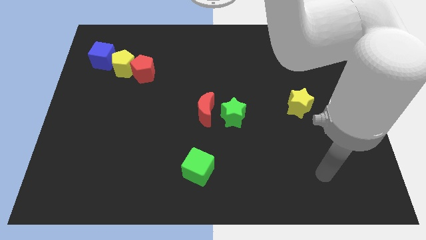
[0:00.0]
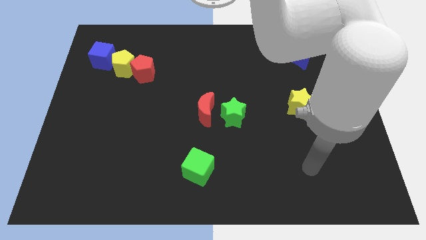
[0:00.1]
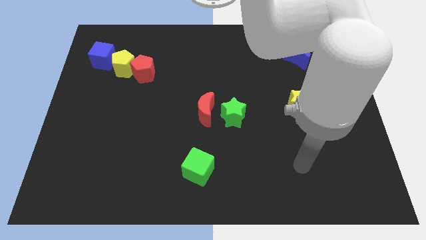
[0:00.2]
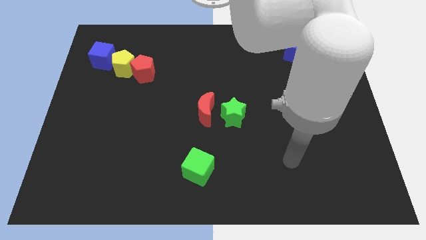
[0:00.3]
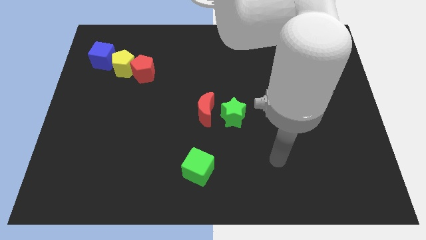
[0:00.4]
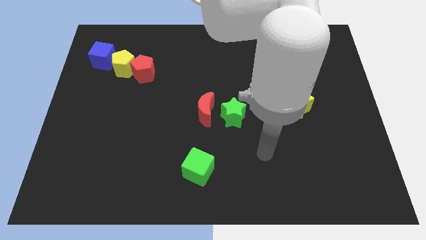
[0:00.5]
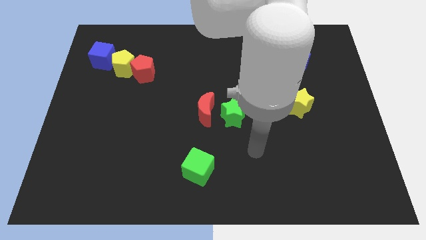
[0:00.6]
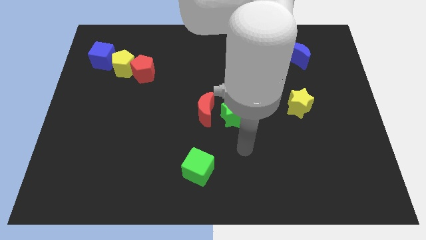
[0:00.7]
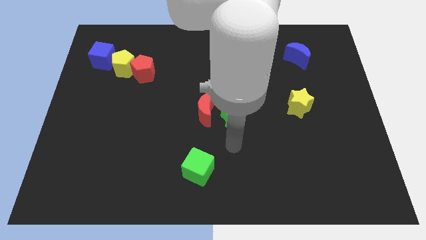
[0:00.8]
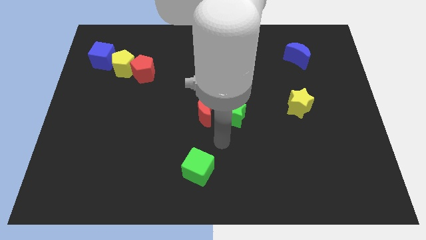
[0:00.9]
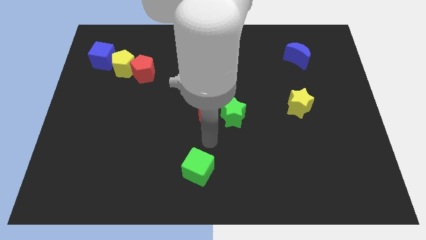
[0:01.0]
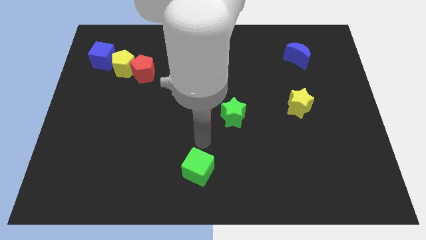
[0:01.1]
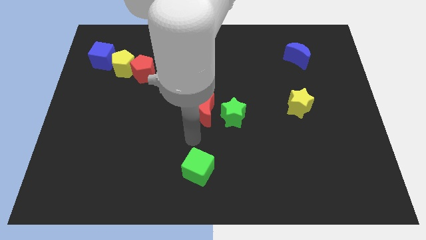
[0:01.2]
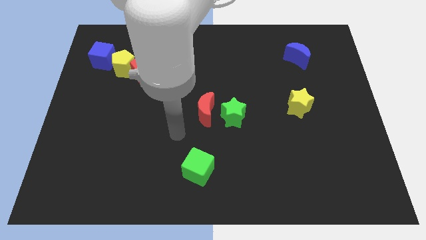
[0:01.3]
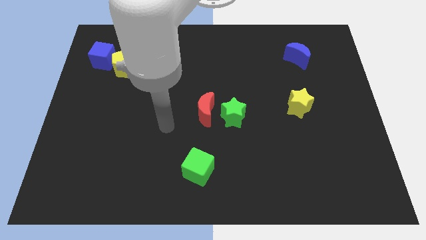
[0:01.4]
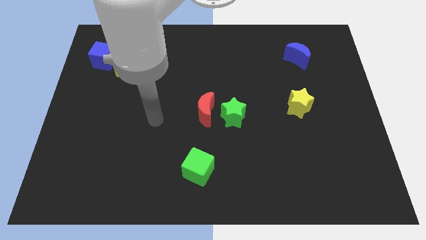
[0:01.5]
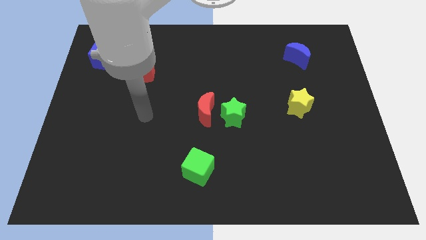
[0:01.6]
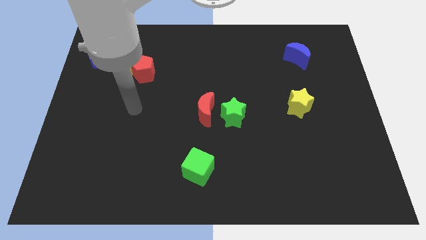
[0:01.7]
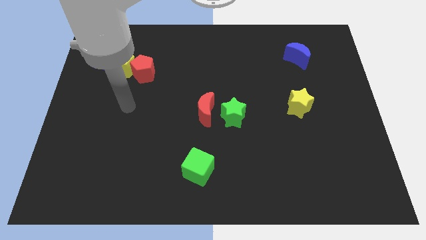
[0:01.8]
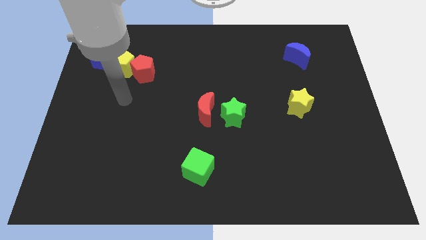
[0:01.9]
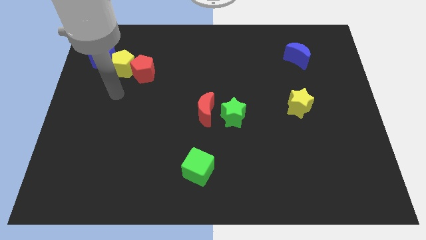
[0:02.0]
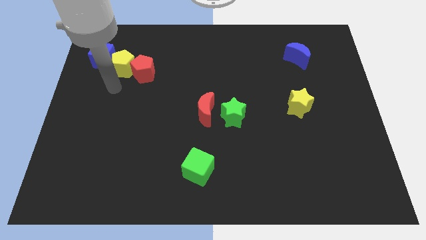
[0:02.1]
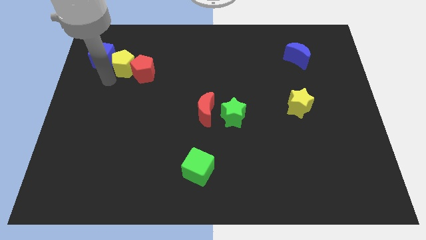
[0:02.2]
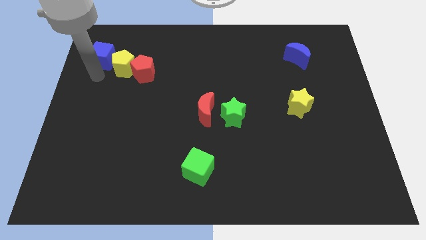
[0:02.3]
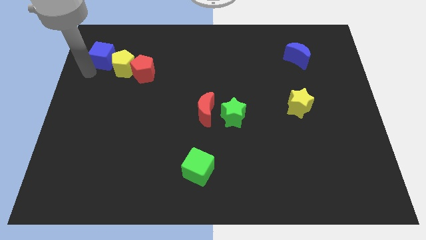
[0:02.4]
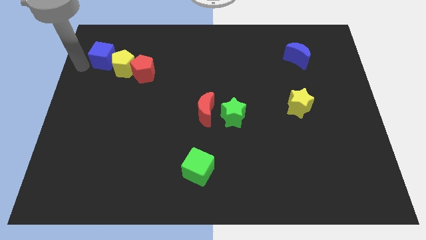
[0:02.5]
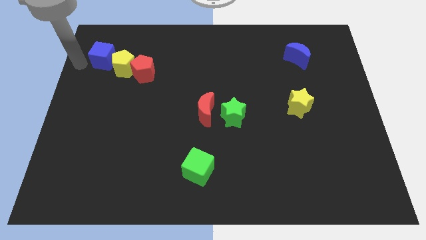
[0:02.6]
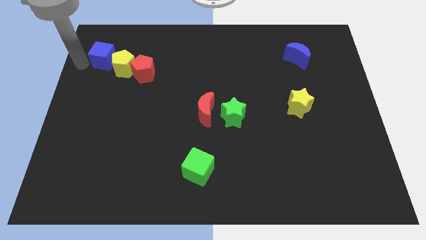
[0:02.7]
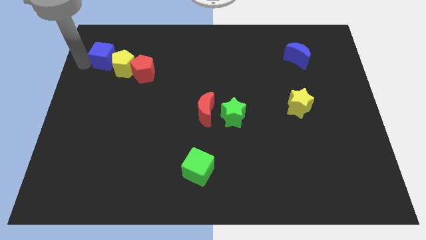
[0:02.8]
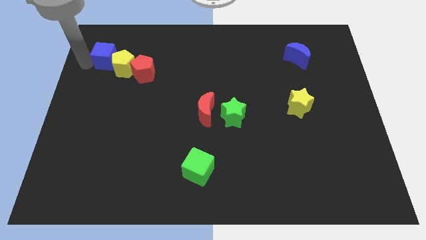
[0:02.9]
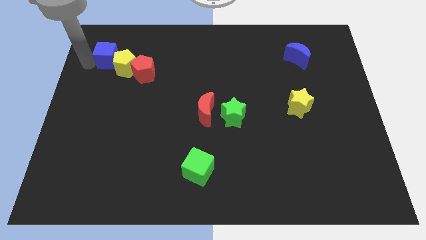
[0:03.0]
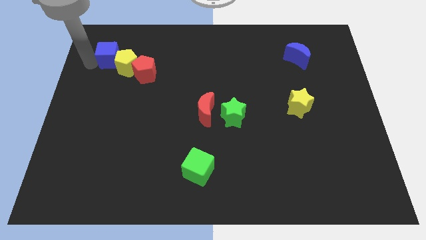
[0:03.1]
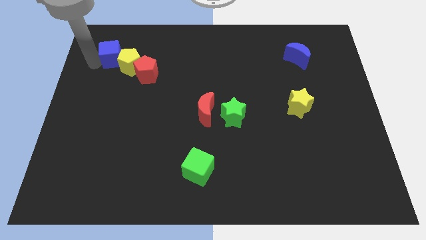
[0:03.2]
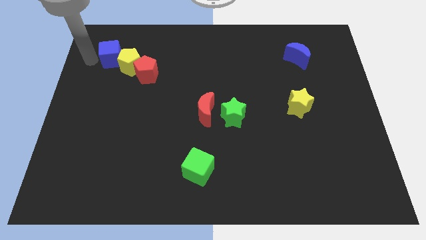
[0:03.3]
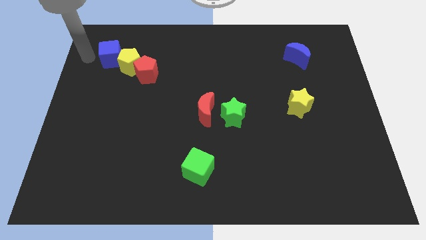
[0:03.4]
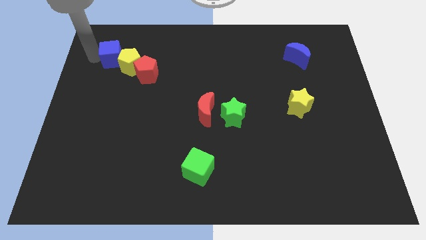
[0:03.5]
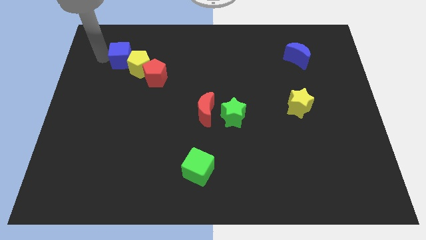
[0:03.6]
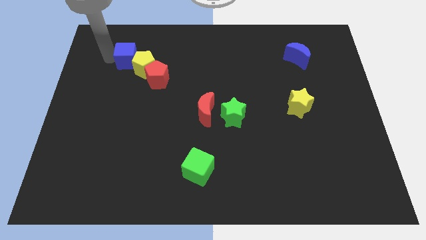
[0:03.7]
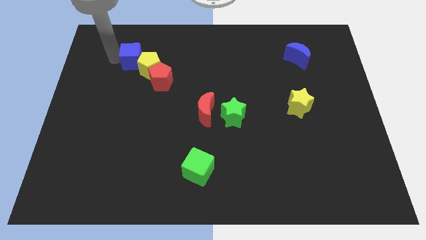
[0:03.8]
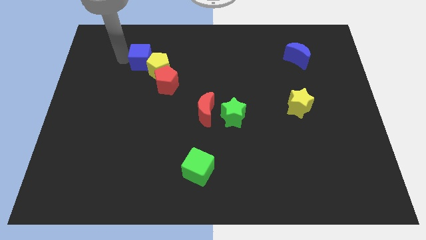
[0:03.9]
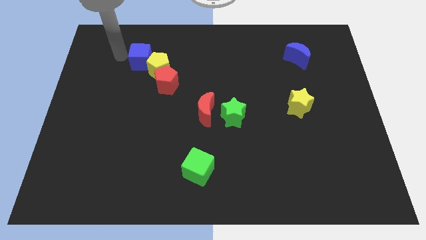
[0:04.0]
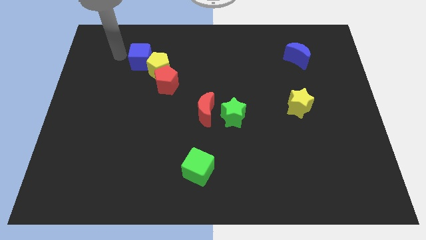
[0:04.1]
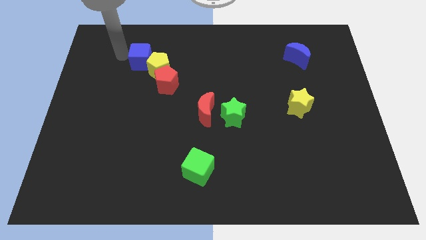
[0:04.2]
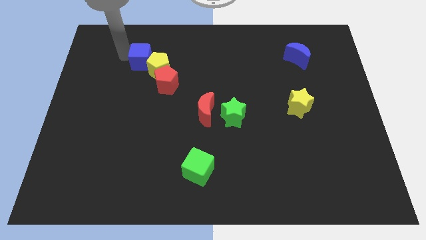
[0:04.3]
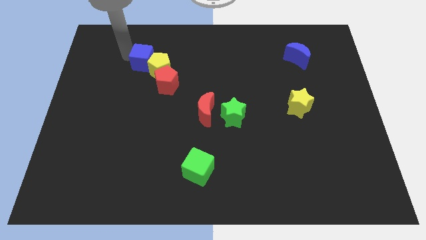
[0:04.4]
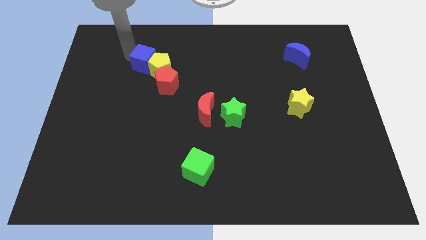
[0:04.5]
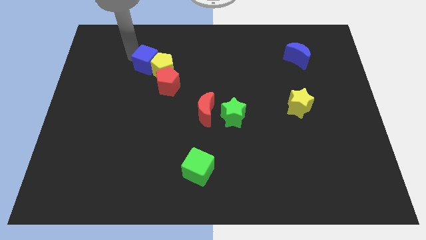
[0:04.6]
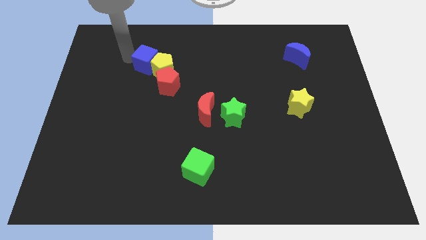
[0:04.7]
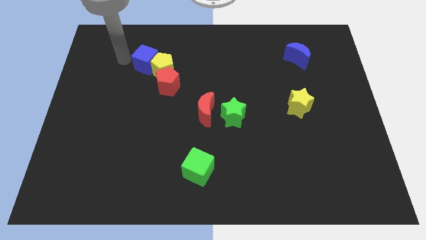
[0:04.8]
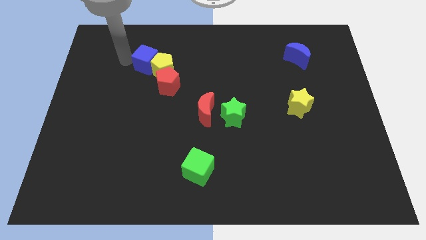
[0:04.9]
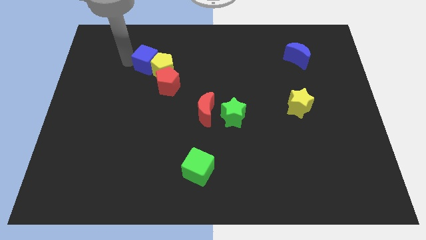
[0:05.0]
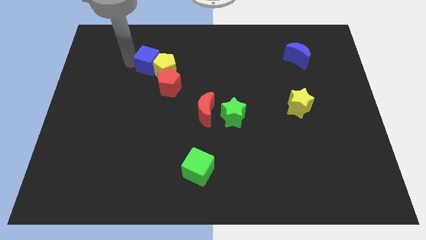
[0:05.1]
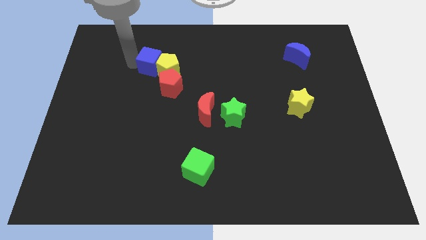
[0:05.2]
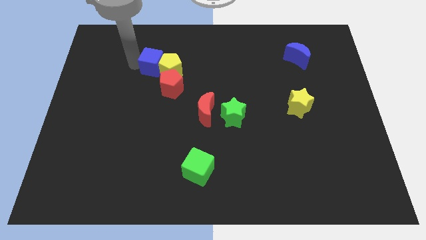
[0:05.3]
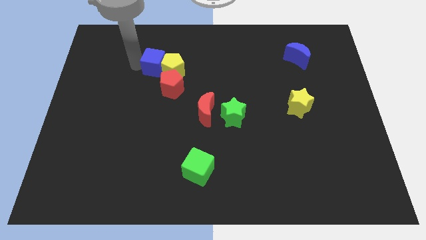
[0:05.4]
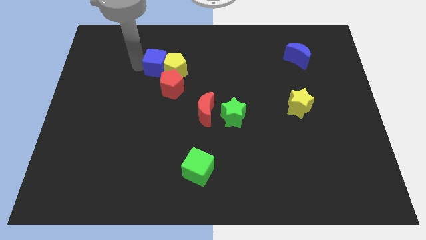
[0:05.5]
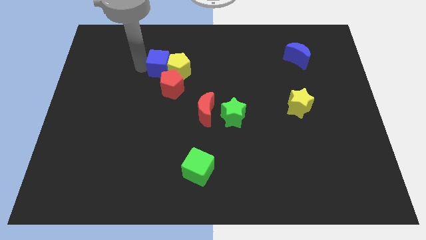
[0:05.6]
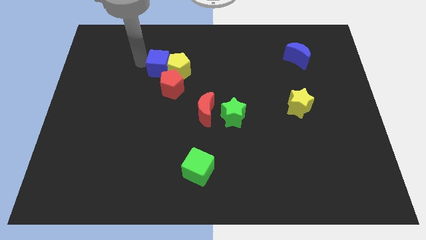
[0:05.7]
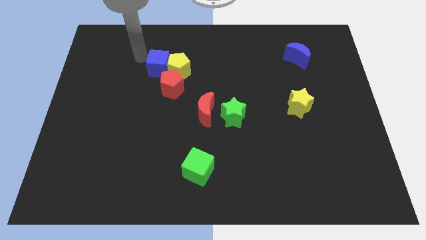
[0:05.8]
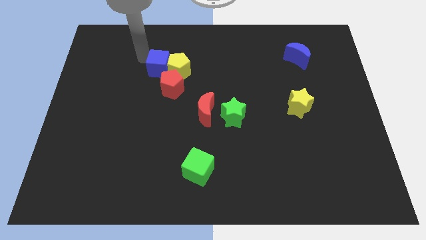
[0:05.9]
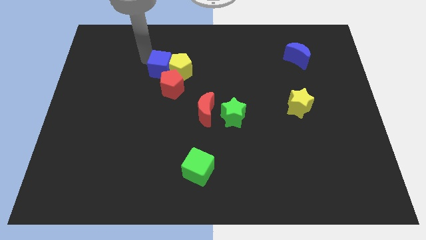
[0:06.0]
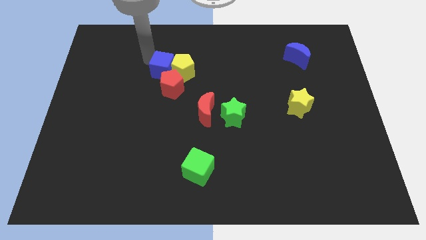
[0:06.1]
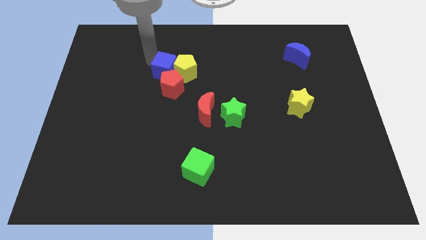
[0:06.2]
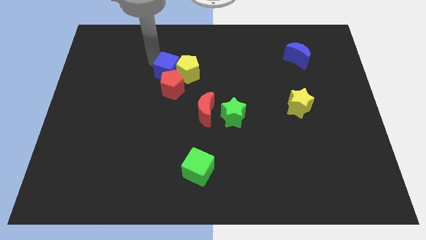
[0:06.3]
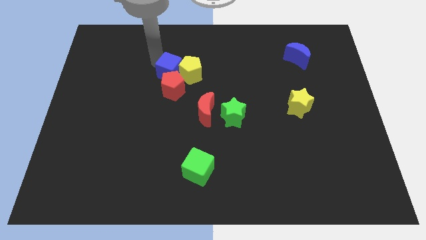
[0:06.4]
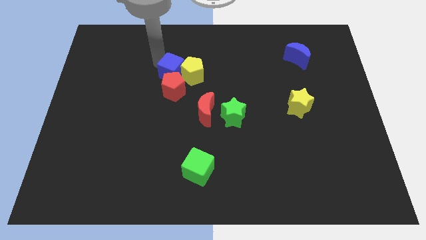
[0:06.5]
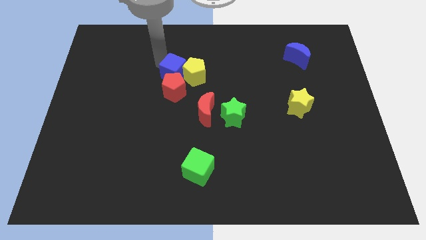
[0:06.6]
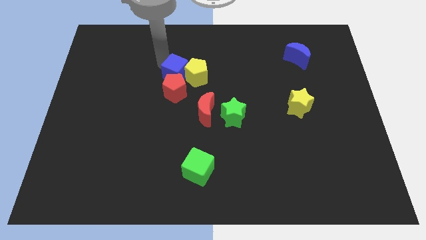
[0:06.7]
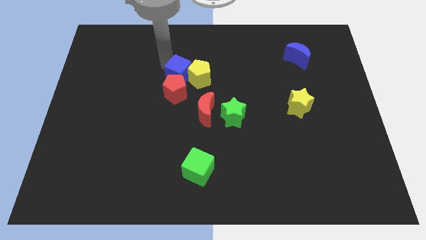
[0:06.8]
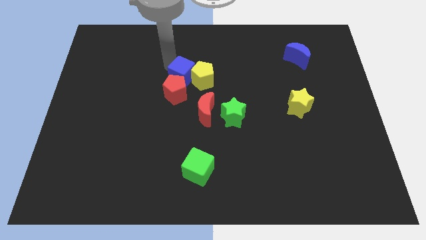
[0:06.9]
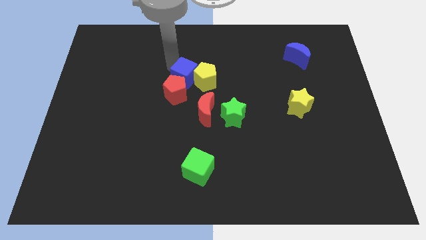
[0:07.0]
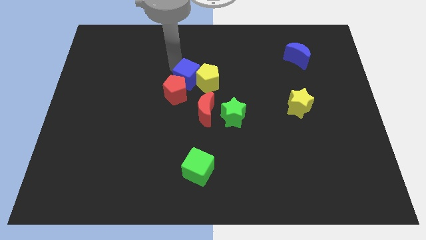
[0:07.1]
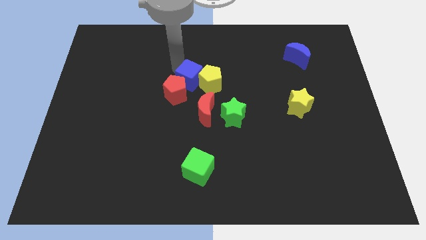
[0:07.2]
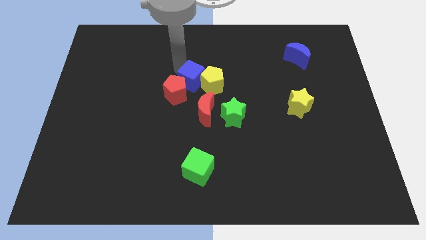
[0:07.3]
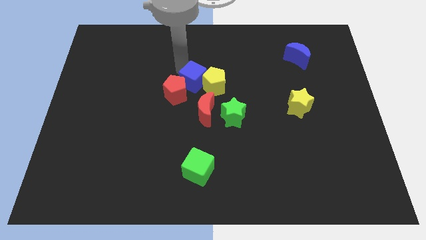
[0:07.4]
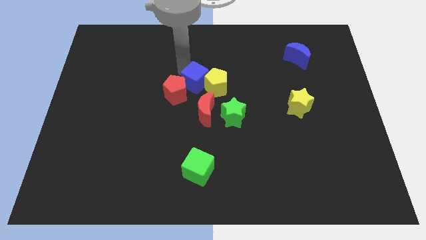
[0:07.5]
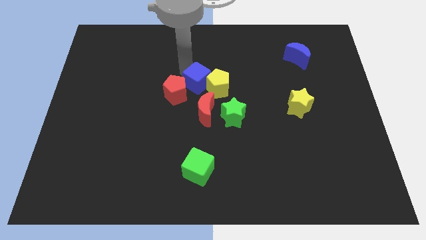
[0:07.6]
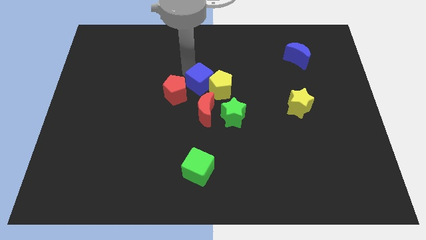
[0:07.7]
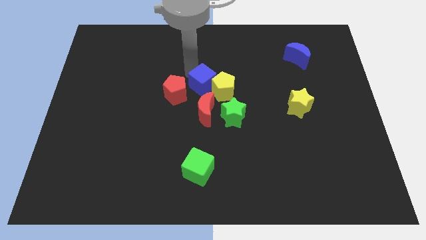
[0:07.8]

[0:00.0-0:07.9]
move the blue cube diagonally up and to the left of the green star
